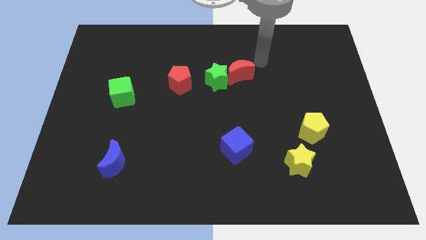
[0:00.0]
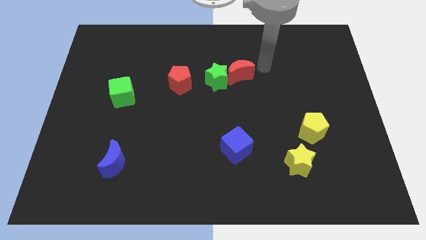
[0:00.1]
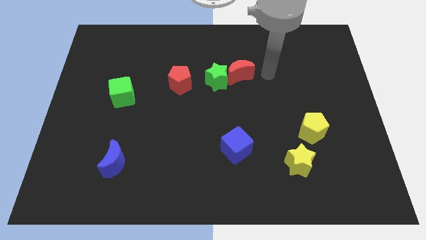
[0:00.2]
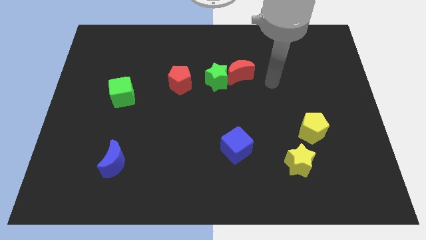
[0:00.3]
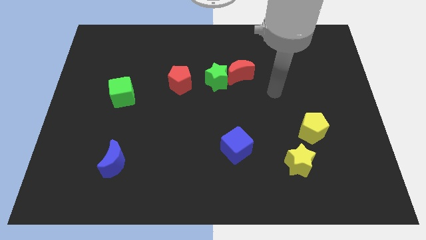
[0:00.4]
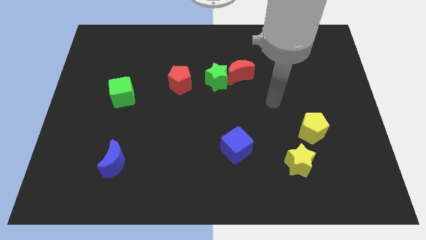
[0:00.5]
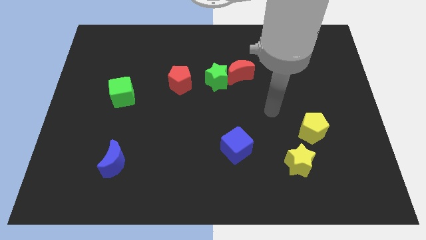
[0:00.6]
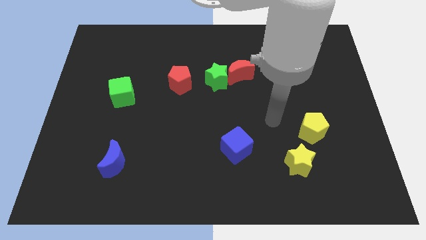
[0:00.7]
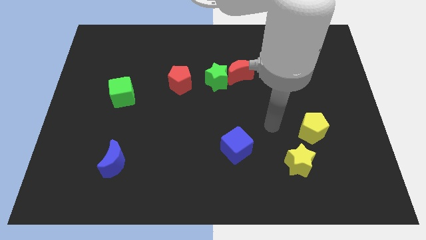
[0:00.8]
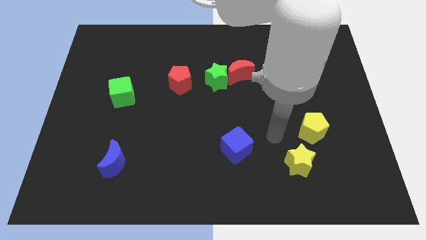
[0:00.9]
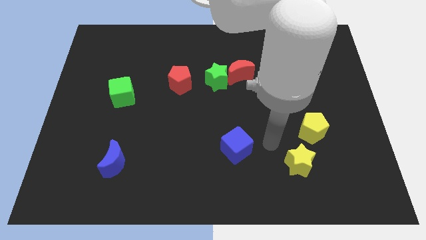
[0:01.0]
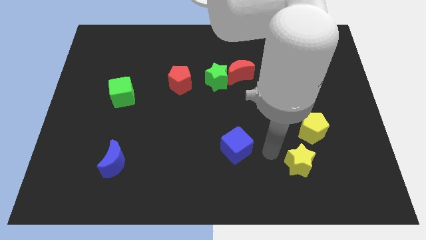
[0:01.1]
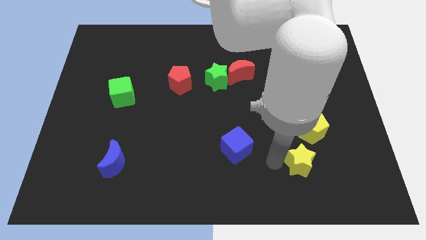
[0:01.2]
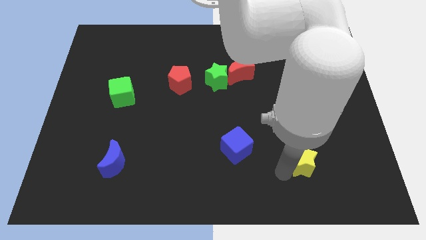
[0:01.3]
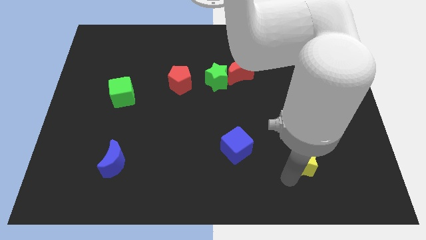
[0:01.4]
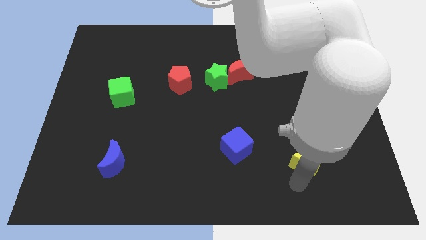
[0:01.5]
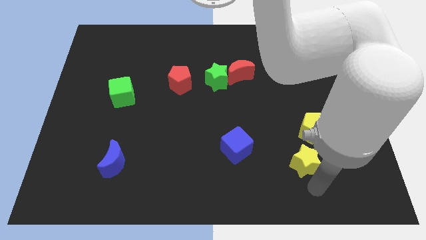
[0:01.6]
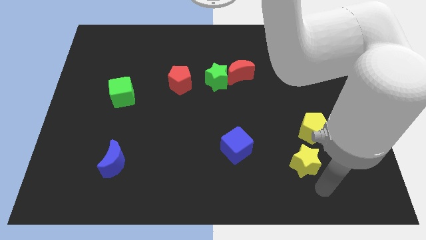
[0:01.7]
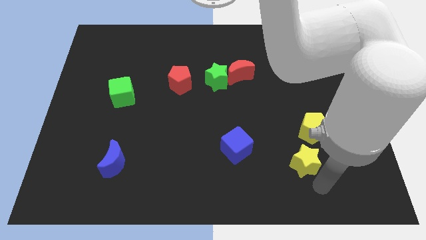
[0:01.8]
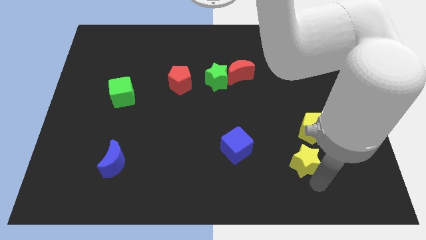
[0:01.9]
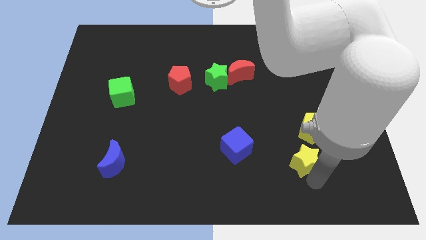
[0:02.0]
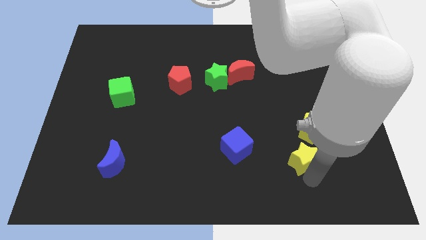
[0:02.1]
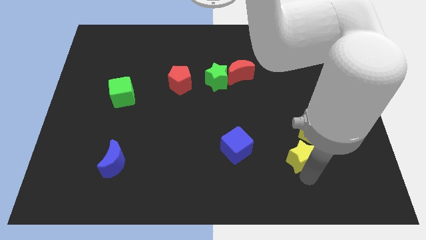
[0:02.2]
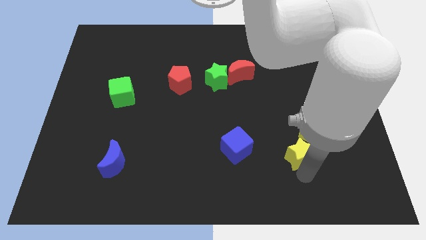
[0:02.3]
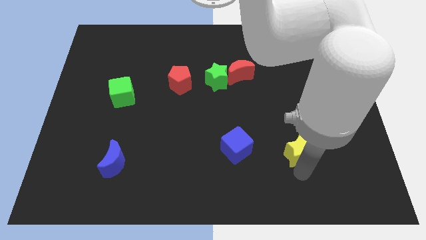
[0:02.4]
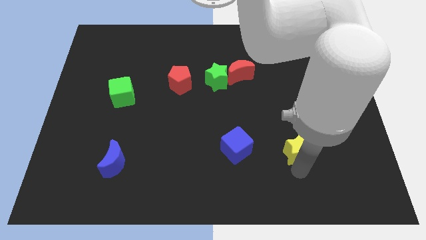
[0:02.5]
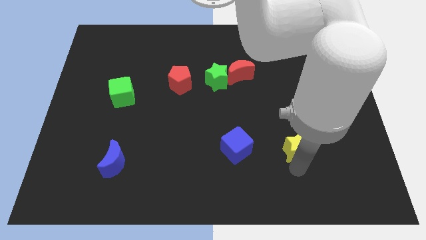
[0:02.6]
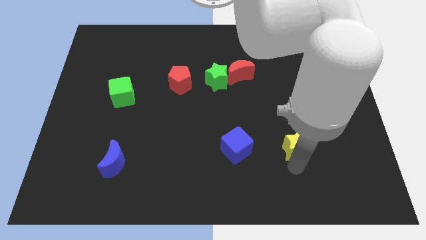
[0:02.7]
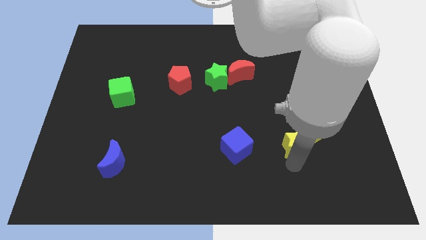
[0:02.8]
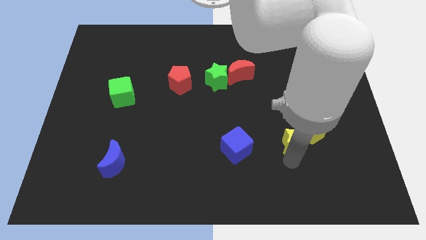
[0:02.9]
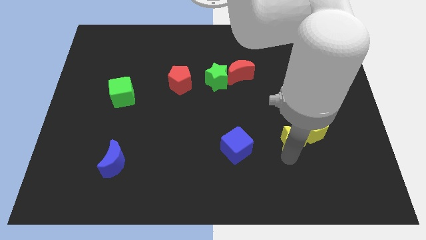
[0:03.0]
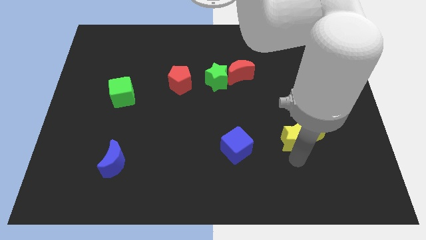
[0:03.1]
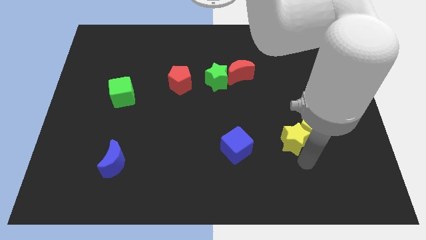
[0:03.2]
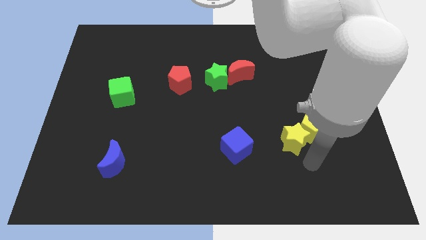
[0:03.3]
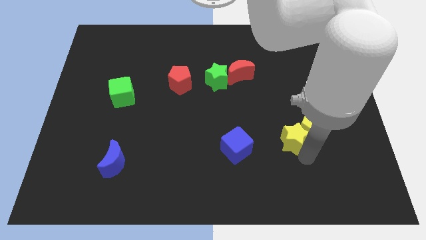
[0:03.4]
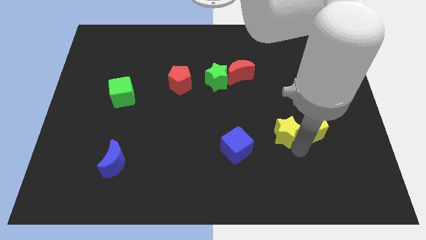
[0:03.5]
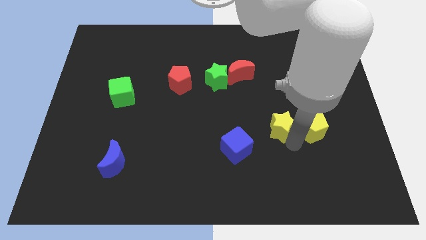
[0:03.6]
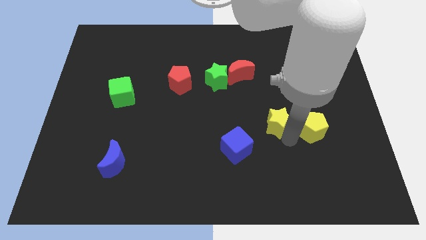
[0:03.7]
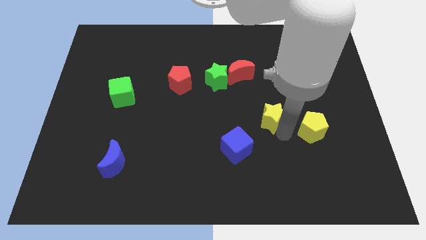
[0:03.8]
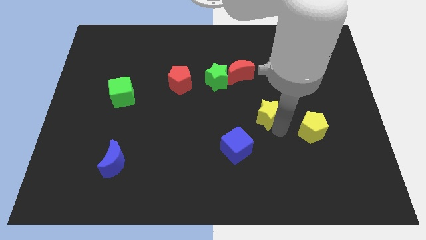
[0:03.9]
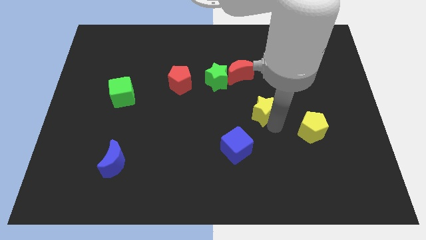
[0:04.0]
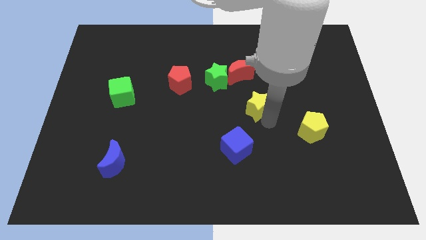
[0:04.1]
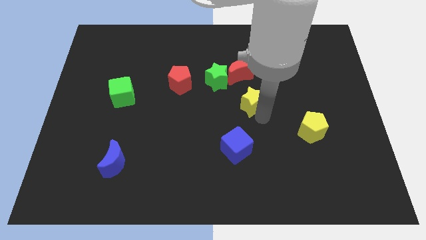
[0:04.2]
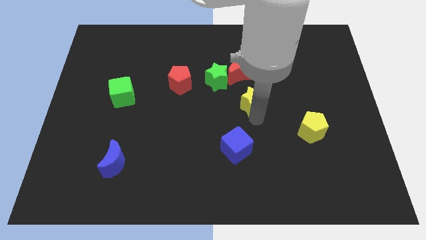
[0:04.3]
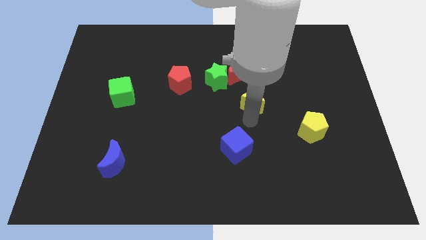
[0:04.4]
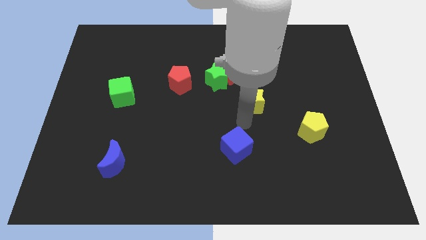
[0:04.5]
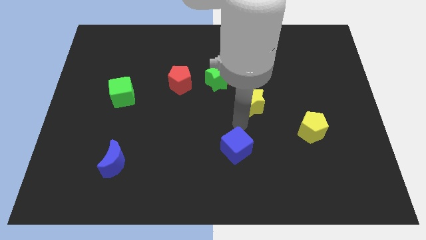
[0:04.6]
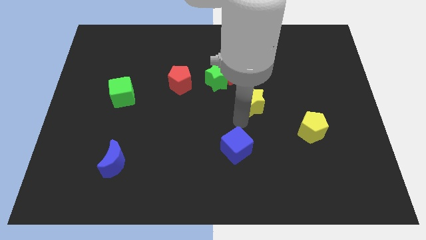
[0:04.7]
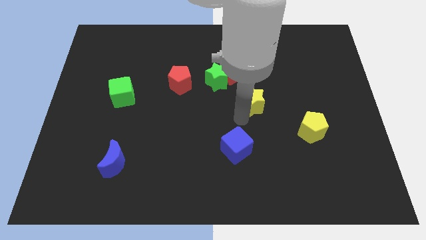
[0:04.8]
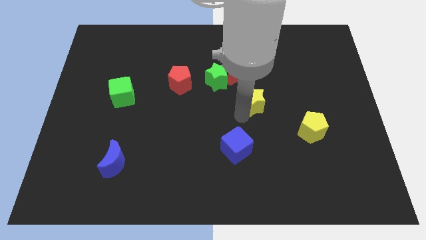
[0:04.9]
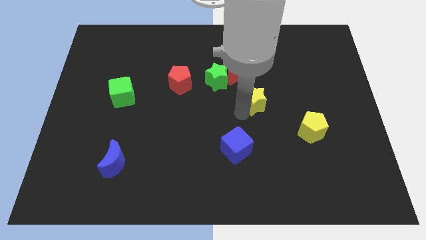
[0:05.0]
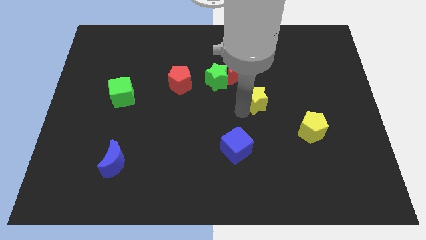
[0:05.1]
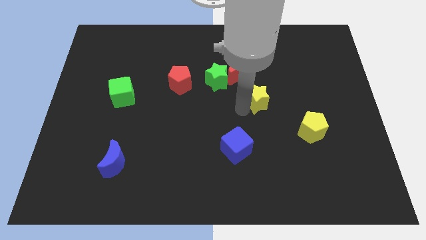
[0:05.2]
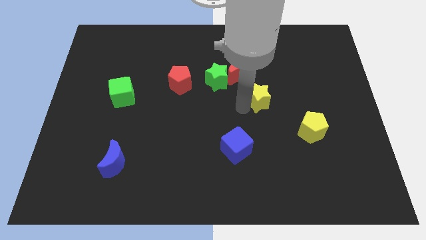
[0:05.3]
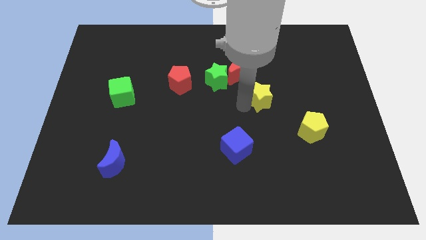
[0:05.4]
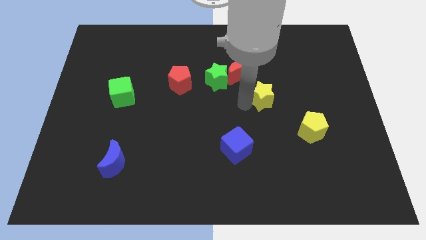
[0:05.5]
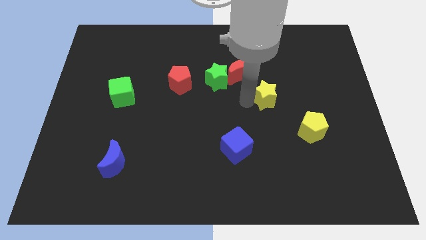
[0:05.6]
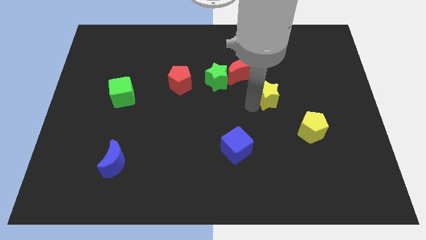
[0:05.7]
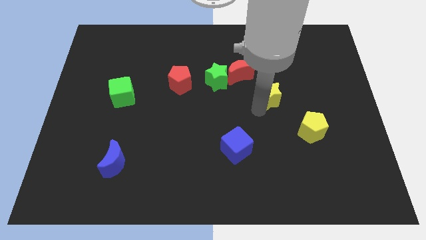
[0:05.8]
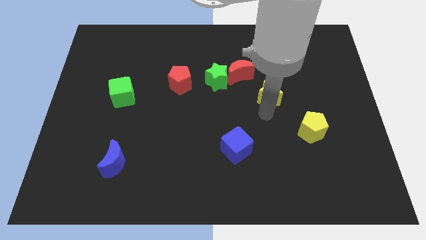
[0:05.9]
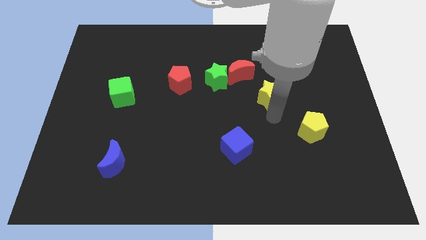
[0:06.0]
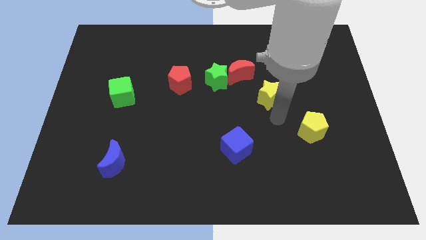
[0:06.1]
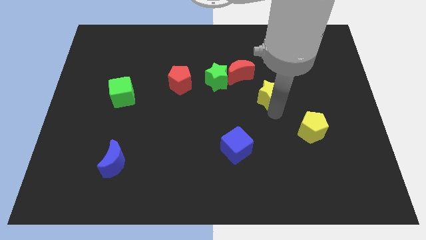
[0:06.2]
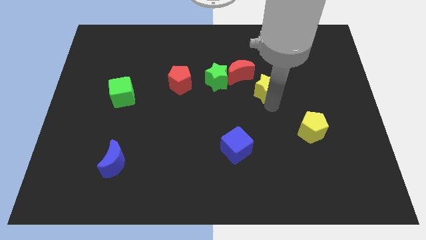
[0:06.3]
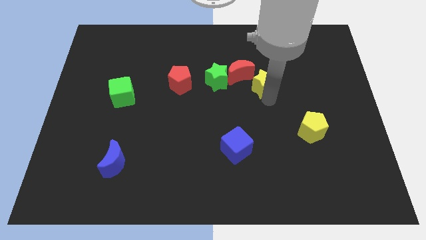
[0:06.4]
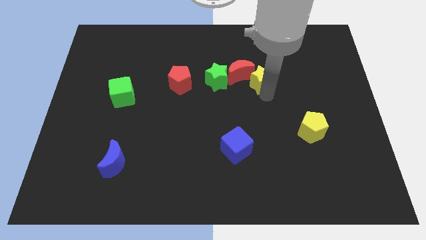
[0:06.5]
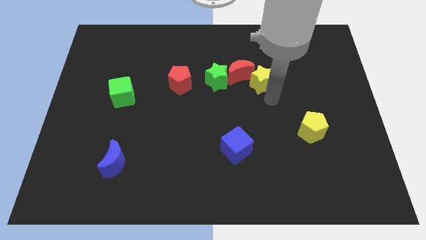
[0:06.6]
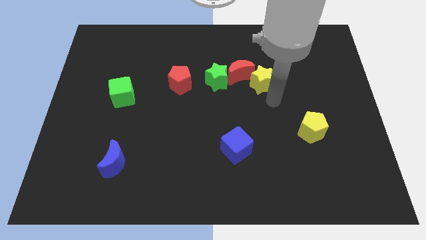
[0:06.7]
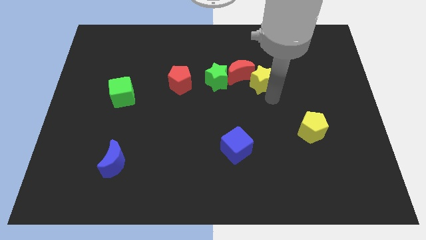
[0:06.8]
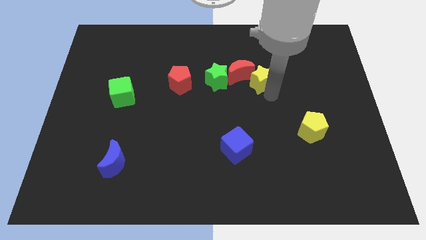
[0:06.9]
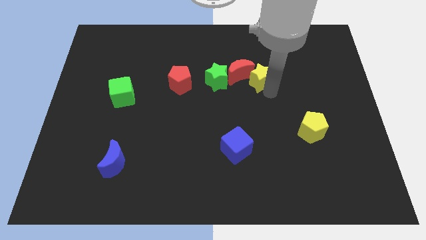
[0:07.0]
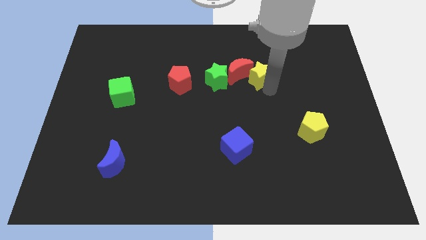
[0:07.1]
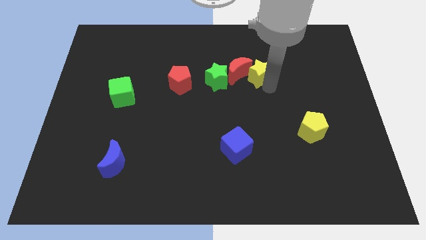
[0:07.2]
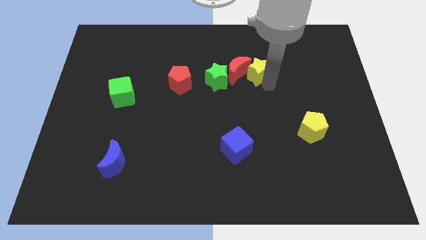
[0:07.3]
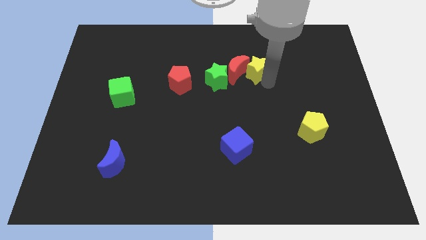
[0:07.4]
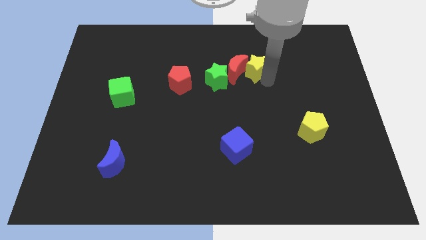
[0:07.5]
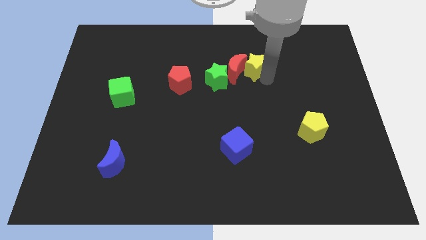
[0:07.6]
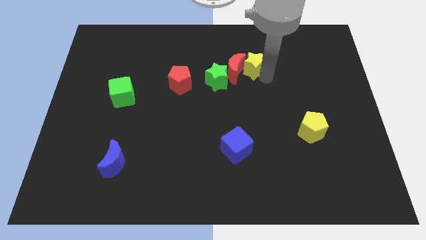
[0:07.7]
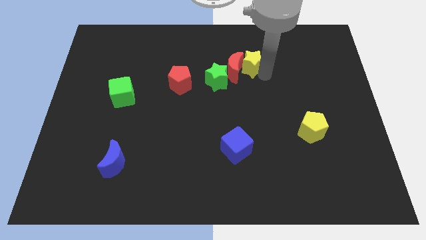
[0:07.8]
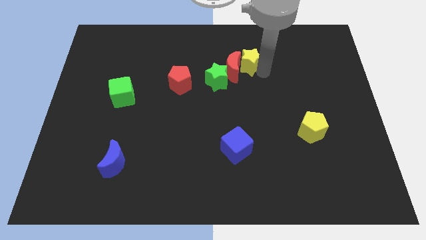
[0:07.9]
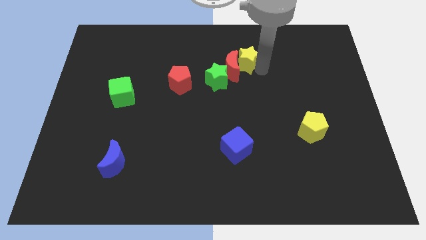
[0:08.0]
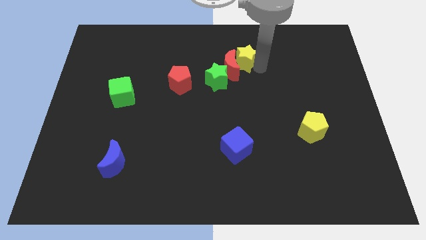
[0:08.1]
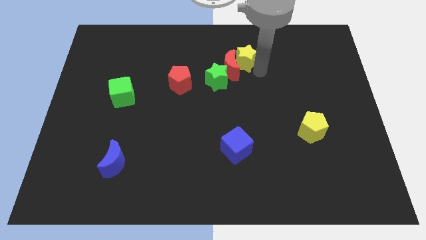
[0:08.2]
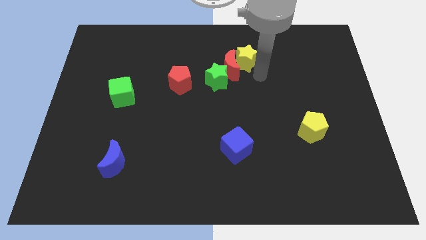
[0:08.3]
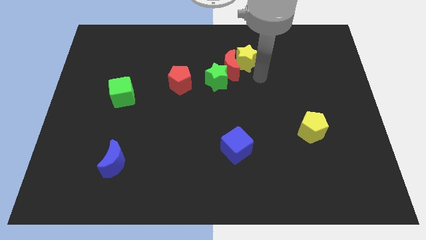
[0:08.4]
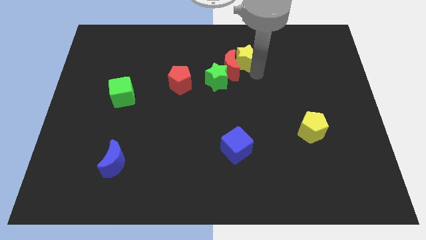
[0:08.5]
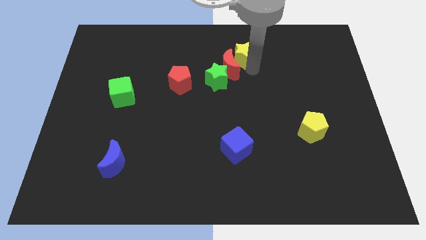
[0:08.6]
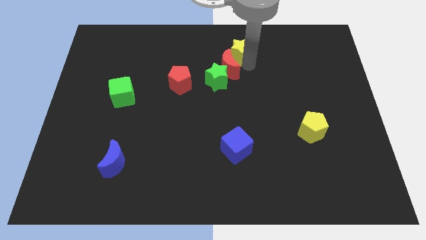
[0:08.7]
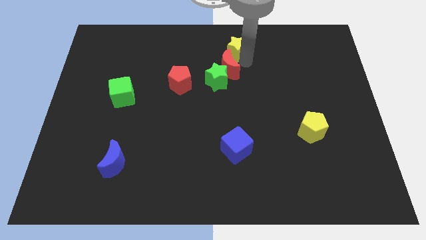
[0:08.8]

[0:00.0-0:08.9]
slide the yellow star to the towards your base
